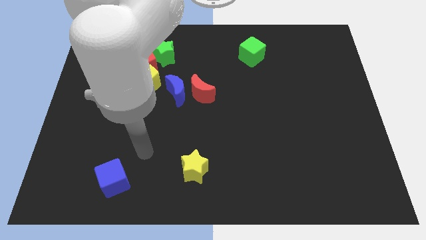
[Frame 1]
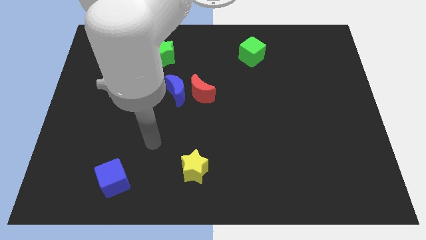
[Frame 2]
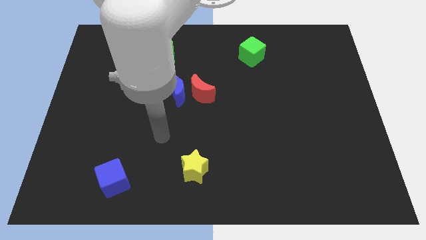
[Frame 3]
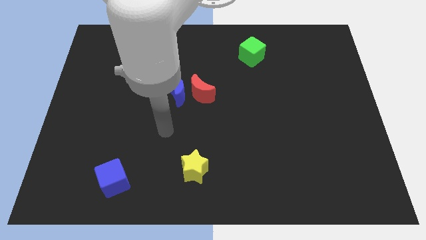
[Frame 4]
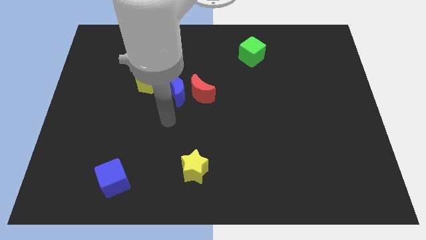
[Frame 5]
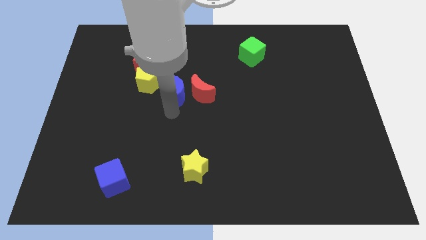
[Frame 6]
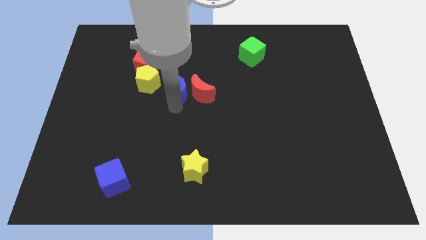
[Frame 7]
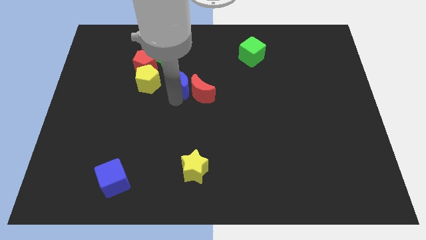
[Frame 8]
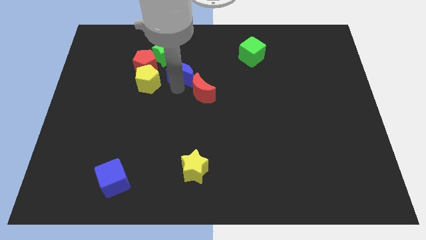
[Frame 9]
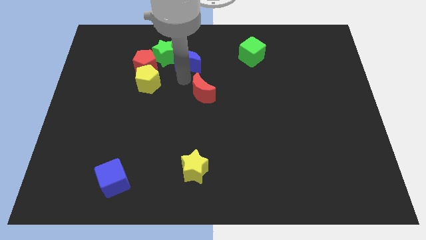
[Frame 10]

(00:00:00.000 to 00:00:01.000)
separate the red moon from the blue moon

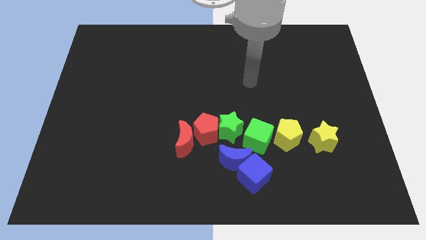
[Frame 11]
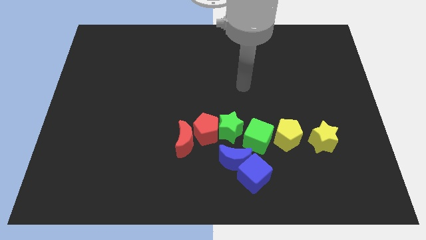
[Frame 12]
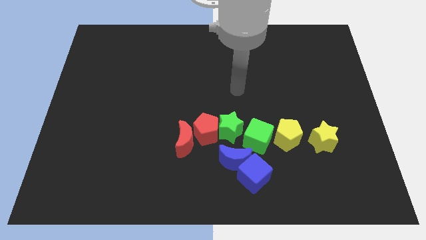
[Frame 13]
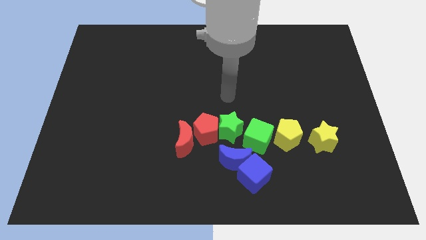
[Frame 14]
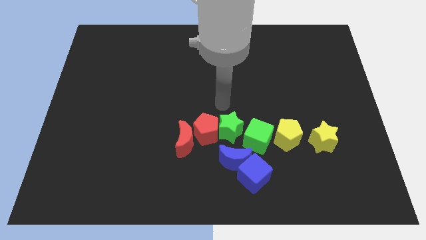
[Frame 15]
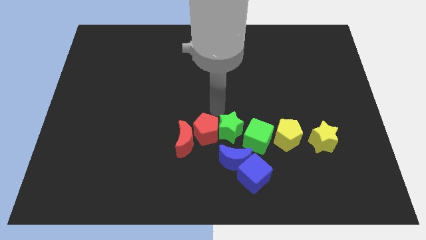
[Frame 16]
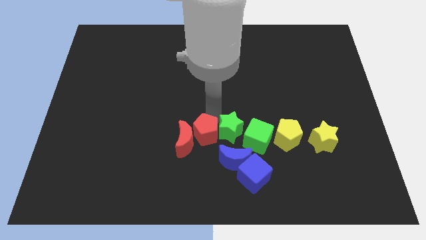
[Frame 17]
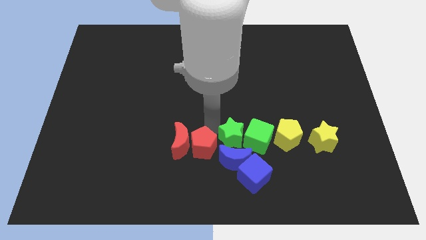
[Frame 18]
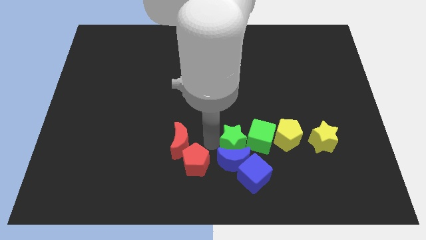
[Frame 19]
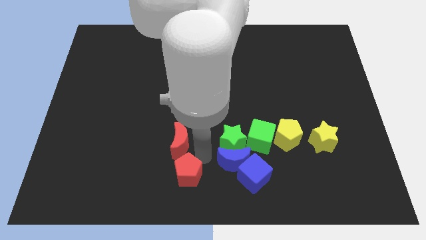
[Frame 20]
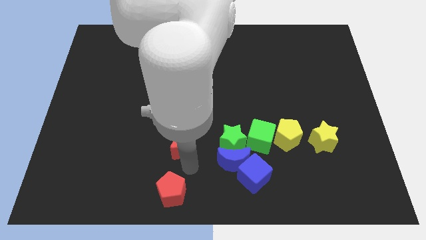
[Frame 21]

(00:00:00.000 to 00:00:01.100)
separate the red moon from the red pentagon

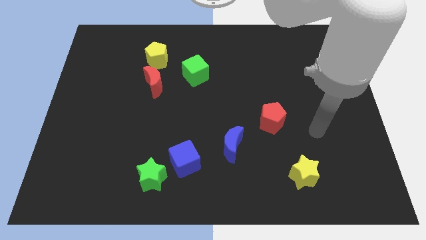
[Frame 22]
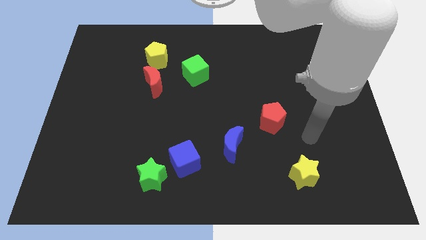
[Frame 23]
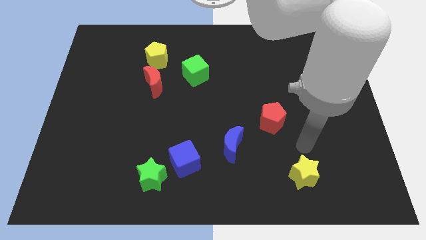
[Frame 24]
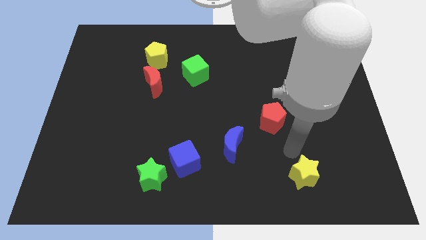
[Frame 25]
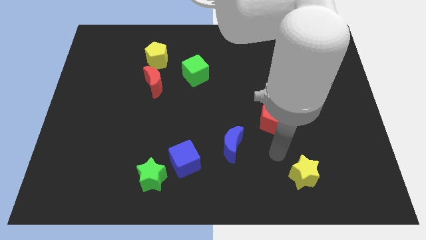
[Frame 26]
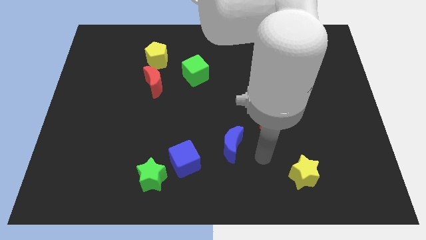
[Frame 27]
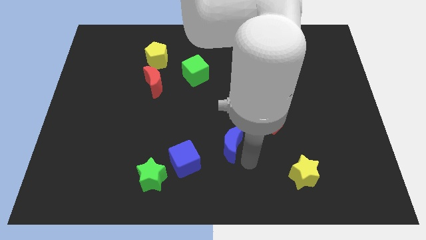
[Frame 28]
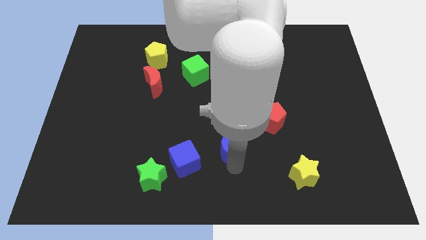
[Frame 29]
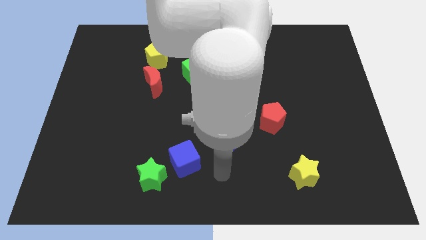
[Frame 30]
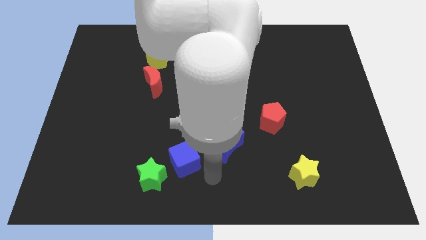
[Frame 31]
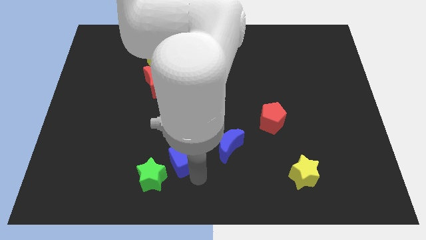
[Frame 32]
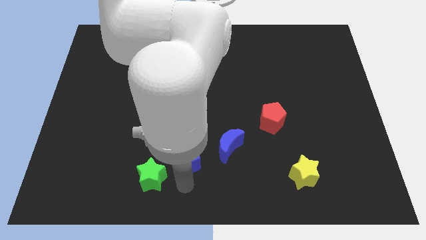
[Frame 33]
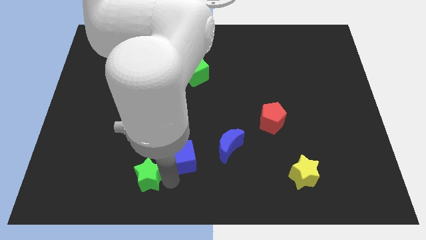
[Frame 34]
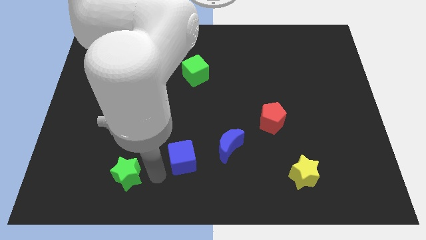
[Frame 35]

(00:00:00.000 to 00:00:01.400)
separate the blue cube from the green star

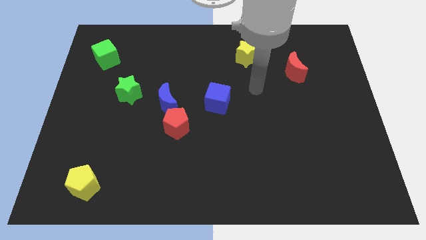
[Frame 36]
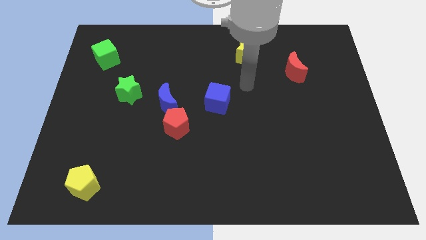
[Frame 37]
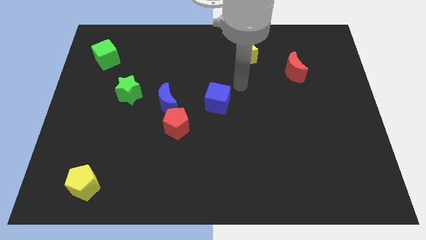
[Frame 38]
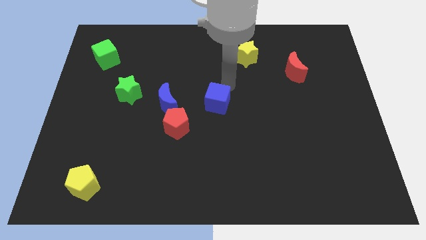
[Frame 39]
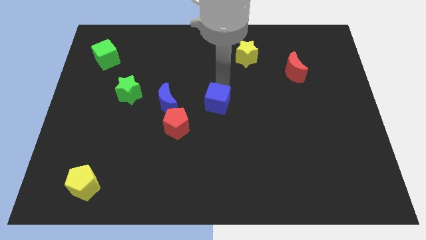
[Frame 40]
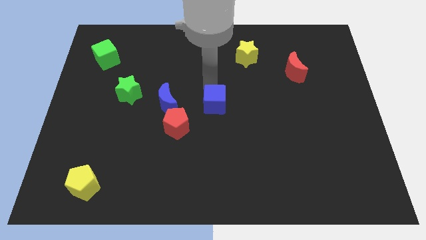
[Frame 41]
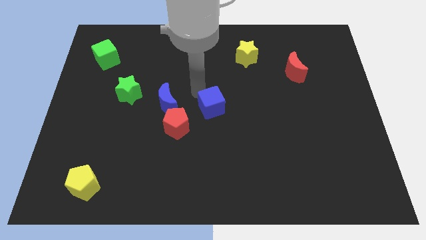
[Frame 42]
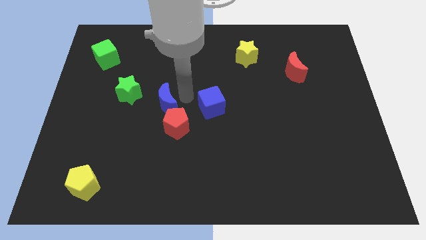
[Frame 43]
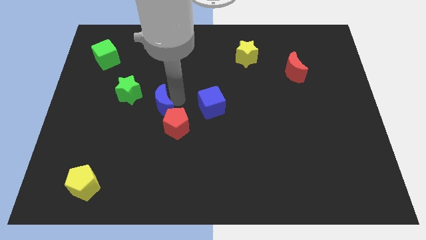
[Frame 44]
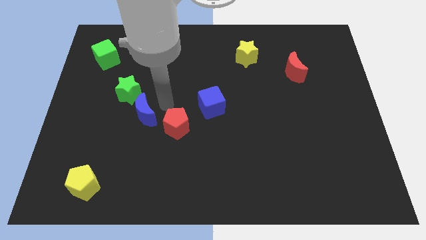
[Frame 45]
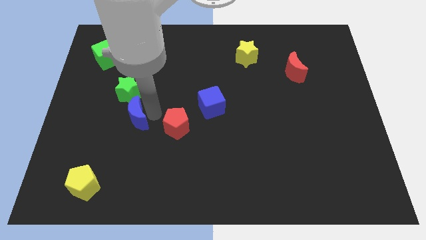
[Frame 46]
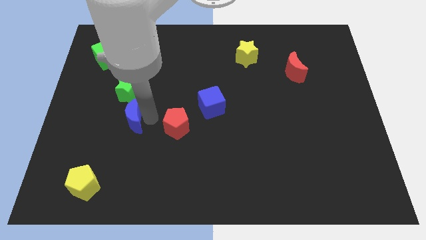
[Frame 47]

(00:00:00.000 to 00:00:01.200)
separate the red pentagon from the blue moon

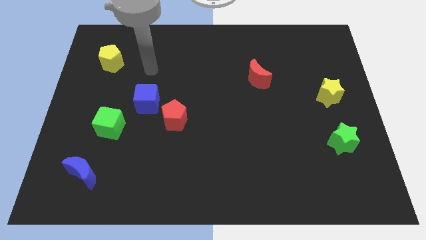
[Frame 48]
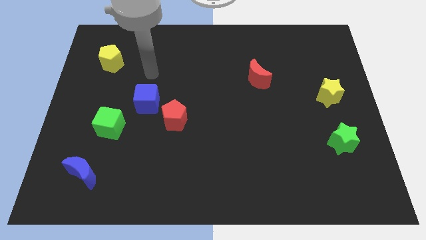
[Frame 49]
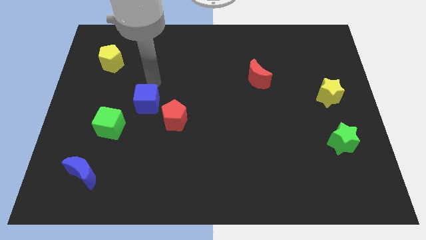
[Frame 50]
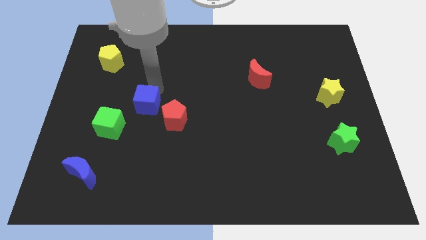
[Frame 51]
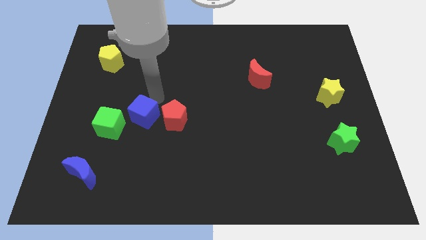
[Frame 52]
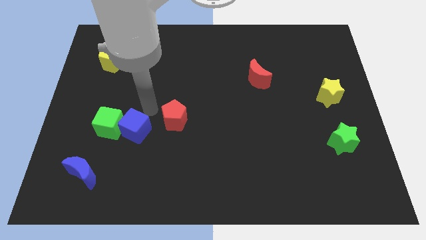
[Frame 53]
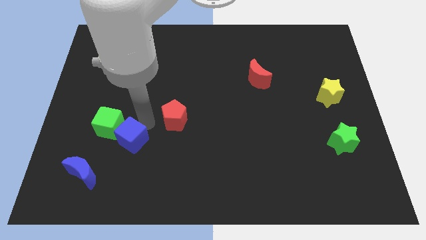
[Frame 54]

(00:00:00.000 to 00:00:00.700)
pull the red pentagon apart from the blue cube

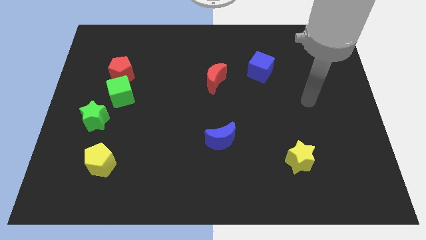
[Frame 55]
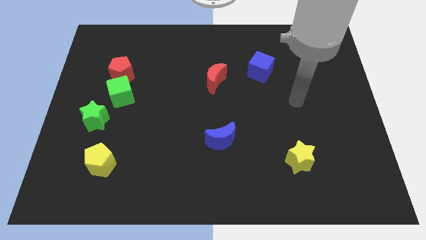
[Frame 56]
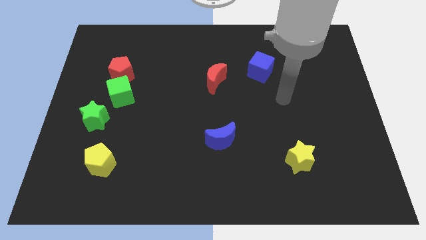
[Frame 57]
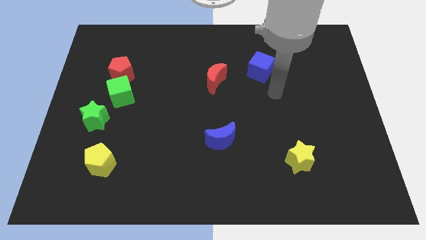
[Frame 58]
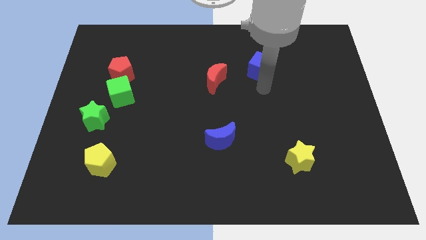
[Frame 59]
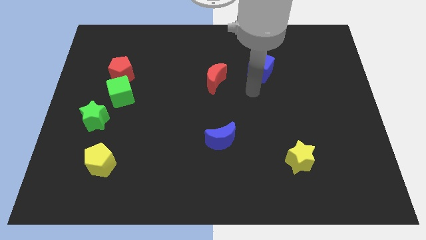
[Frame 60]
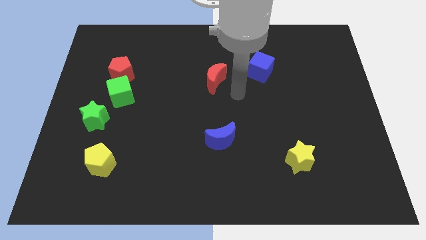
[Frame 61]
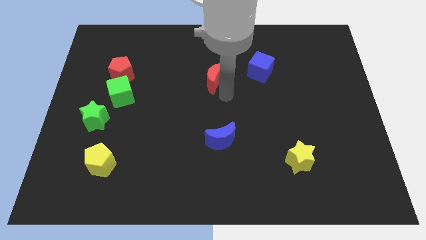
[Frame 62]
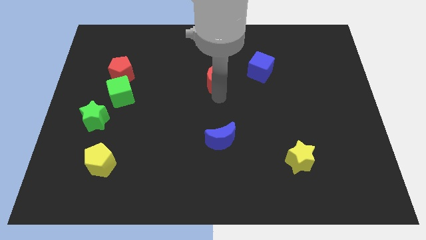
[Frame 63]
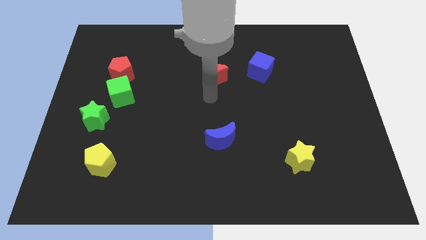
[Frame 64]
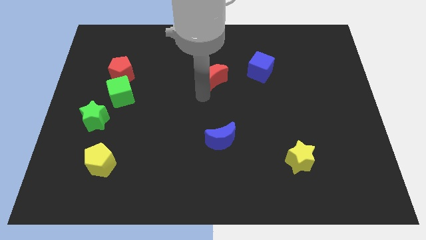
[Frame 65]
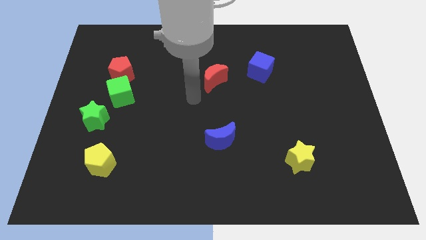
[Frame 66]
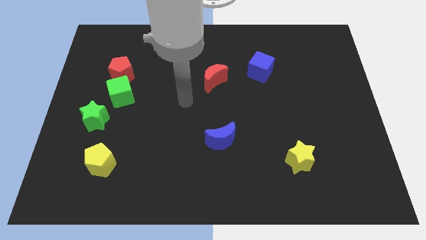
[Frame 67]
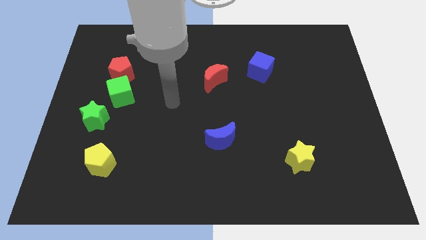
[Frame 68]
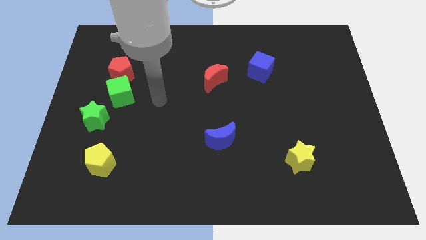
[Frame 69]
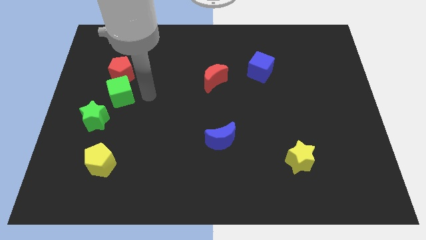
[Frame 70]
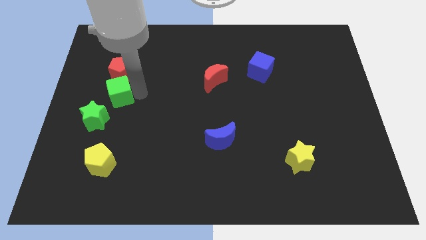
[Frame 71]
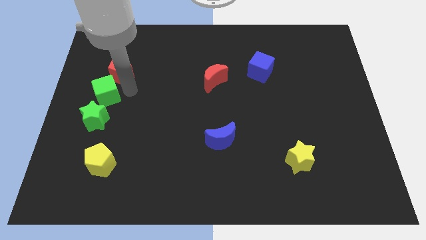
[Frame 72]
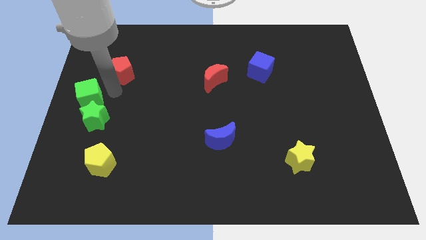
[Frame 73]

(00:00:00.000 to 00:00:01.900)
move the red pentagon away from the green cube

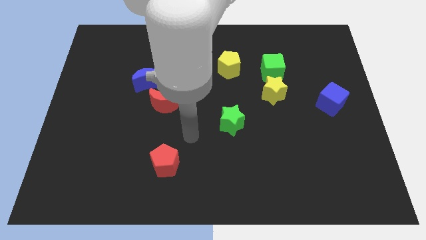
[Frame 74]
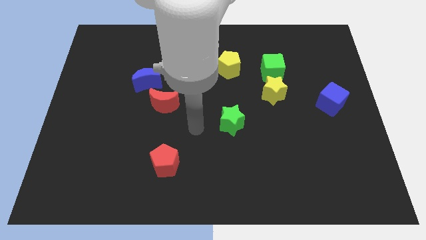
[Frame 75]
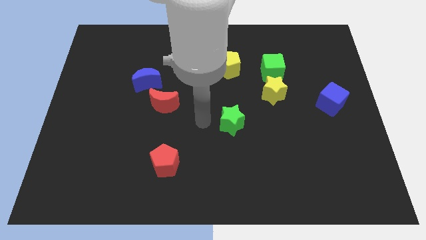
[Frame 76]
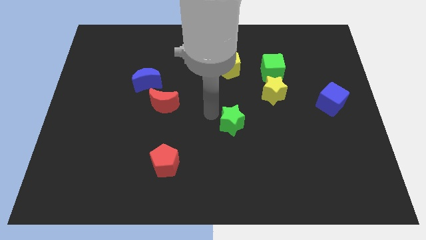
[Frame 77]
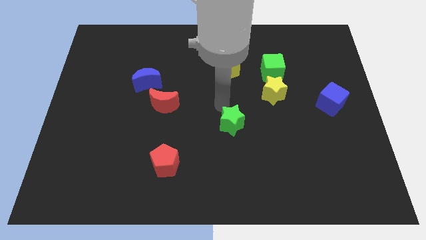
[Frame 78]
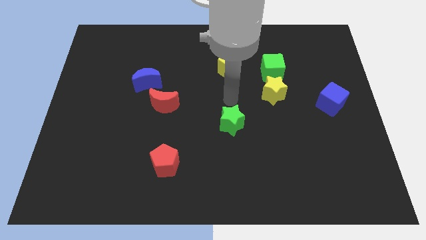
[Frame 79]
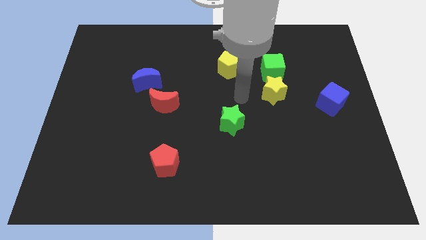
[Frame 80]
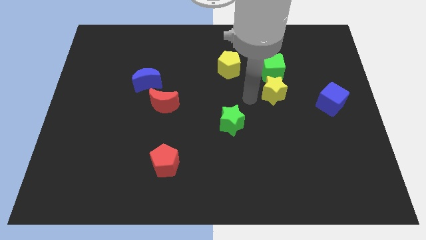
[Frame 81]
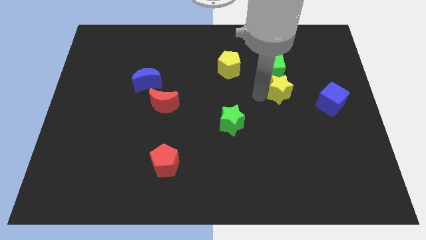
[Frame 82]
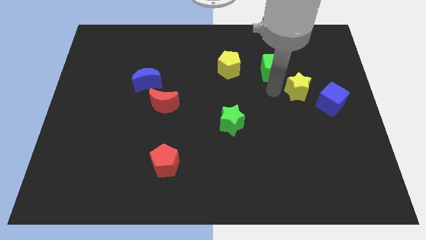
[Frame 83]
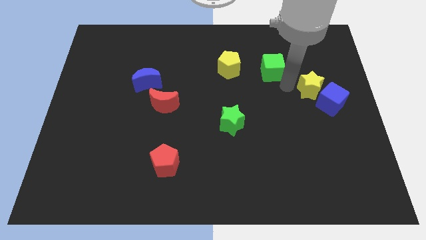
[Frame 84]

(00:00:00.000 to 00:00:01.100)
pull the green cube apart from the yellow star

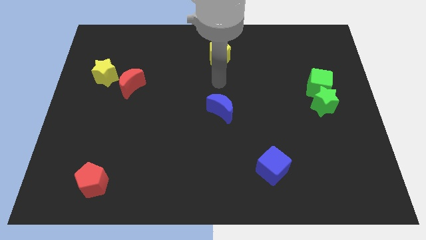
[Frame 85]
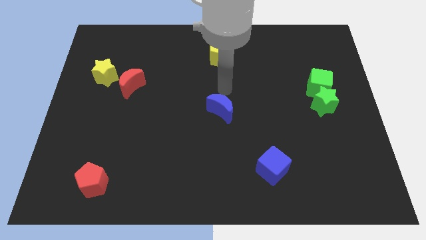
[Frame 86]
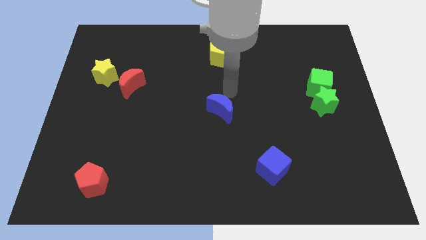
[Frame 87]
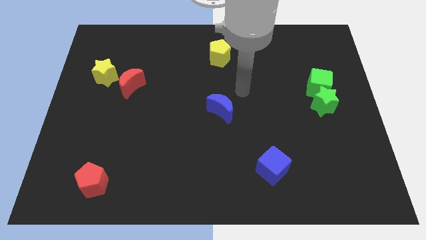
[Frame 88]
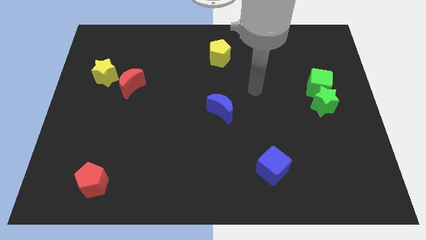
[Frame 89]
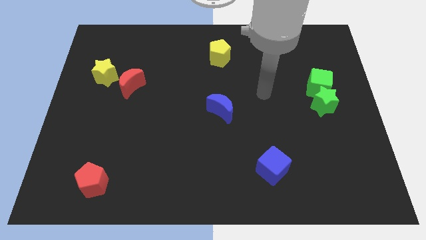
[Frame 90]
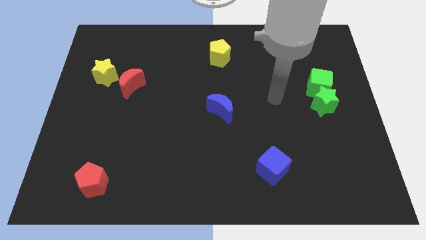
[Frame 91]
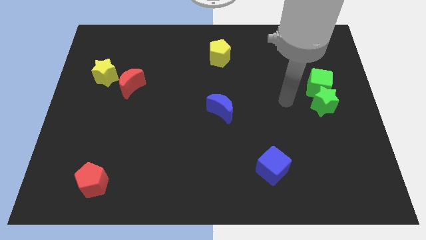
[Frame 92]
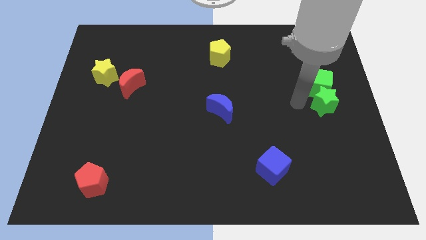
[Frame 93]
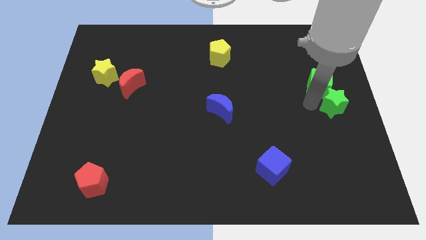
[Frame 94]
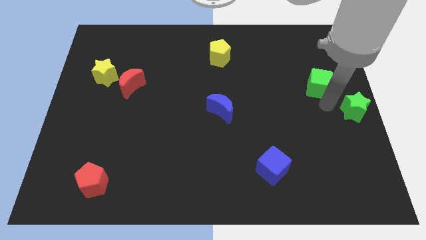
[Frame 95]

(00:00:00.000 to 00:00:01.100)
pull the green cube apart from the green star
